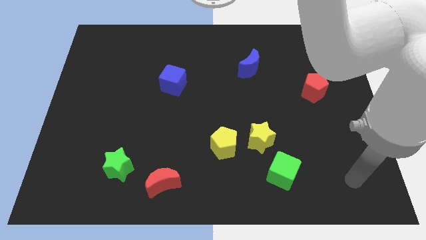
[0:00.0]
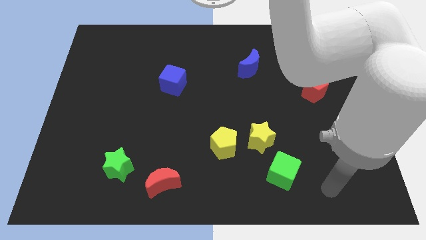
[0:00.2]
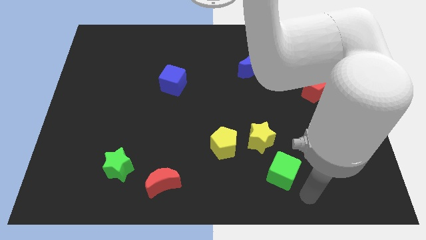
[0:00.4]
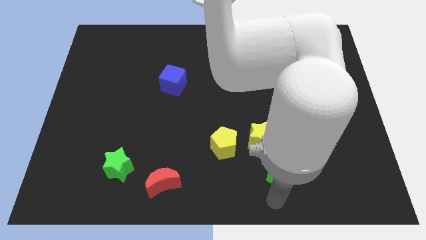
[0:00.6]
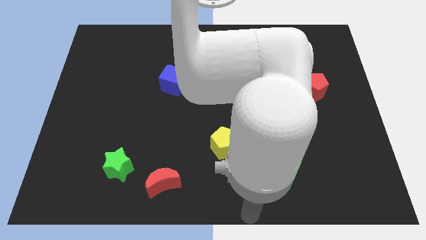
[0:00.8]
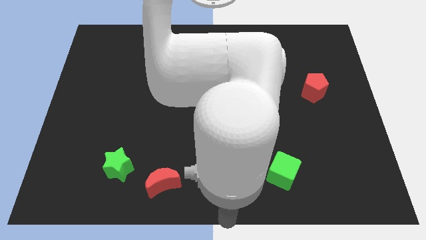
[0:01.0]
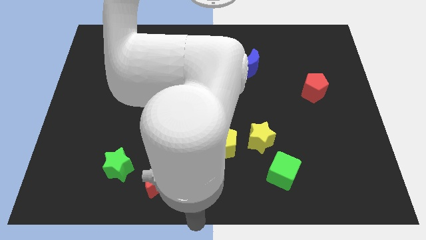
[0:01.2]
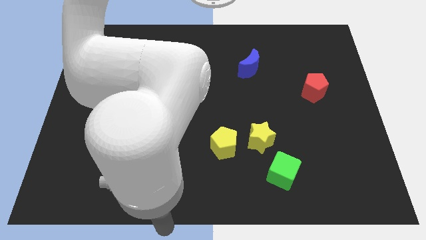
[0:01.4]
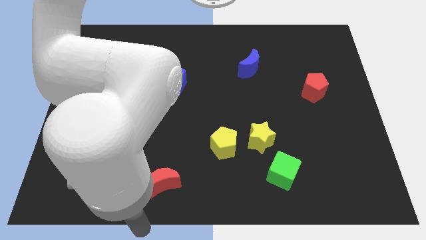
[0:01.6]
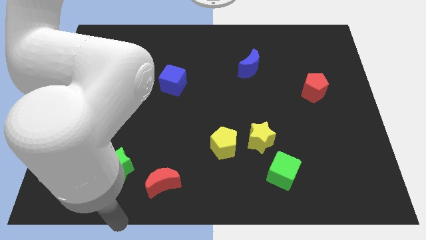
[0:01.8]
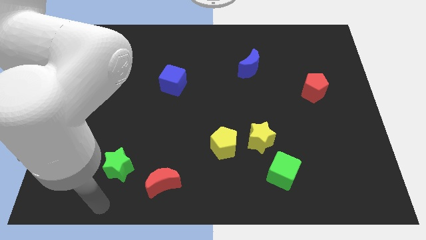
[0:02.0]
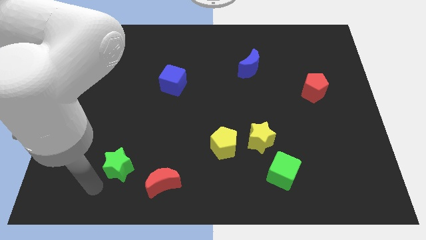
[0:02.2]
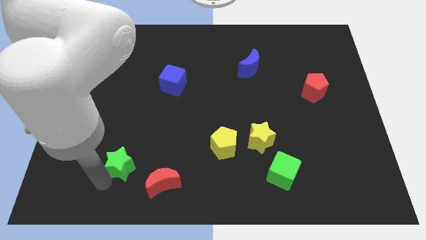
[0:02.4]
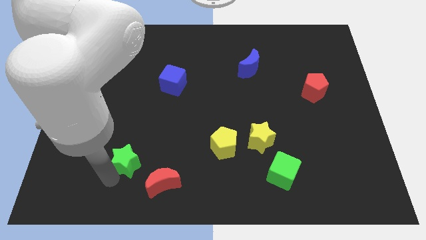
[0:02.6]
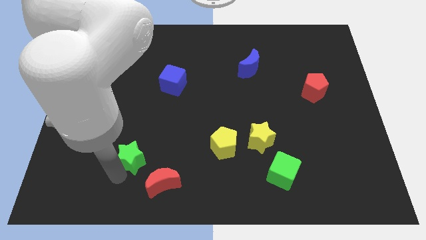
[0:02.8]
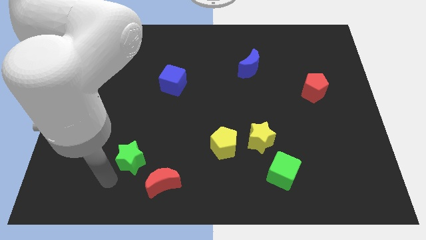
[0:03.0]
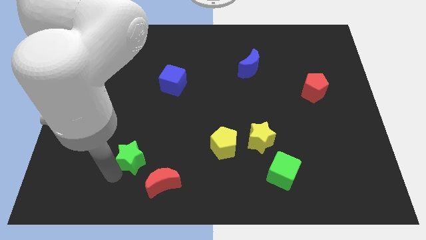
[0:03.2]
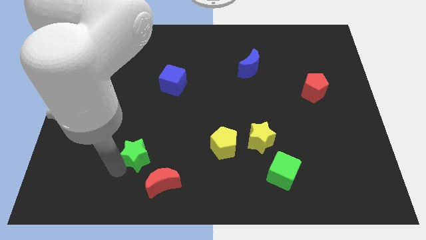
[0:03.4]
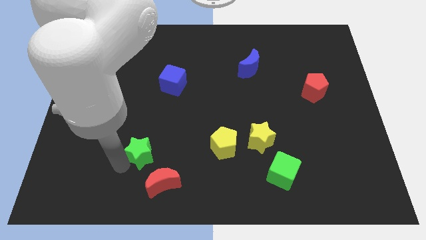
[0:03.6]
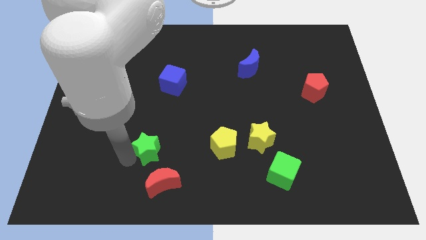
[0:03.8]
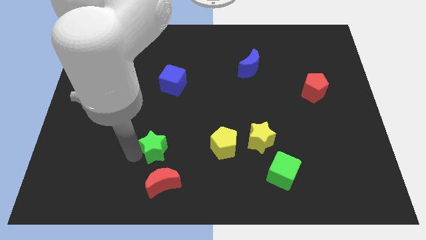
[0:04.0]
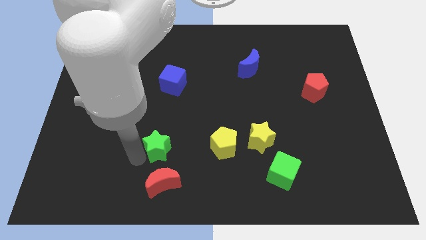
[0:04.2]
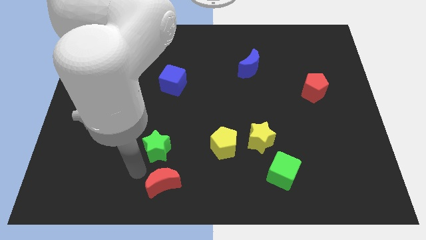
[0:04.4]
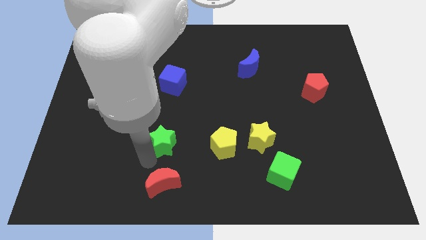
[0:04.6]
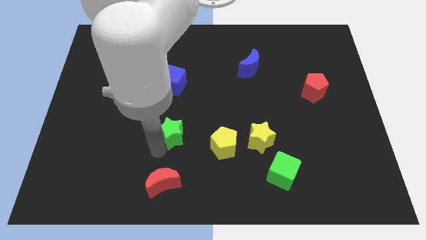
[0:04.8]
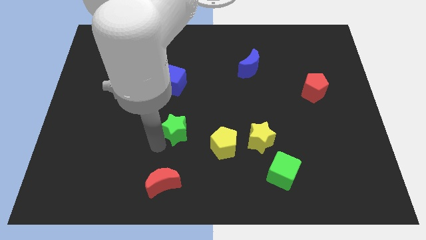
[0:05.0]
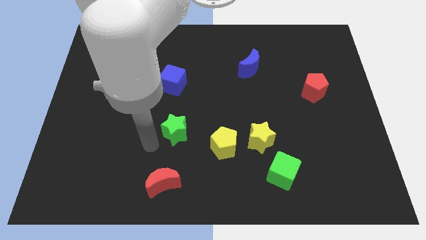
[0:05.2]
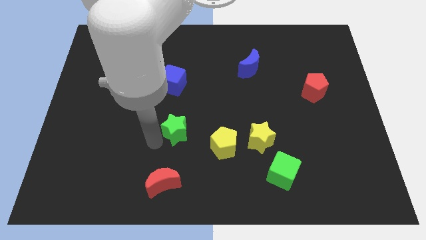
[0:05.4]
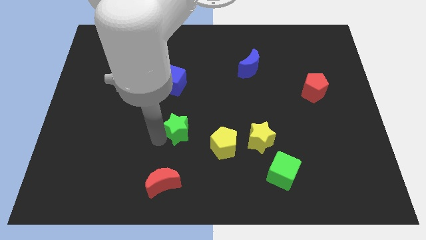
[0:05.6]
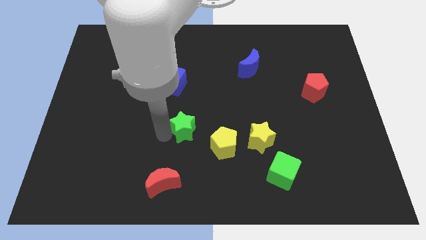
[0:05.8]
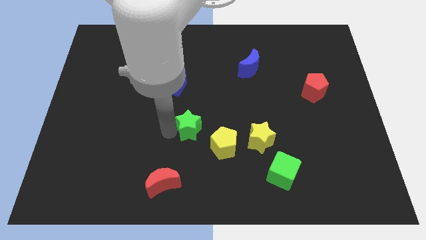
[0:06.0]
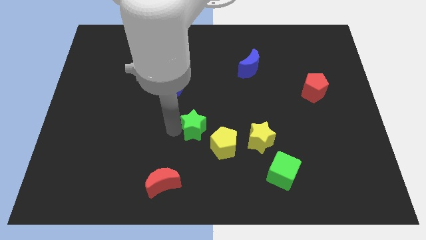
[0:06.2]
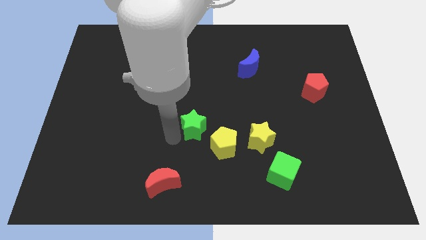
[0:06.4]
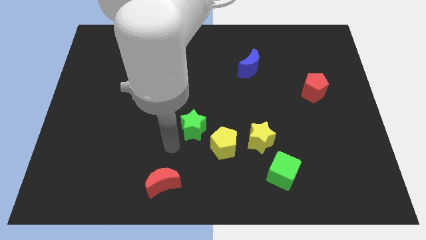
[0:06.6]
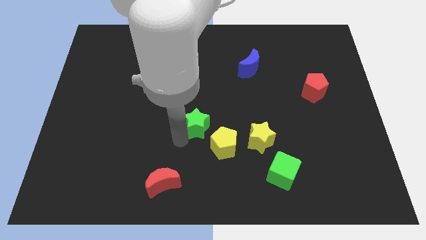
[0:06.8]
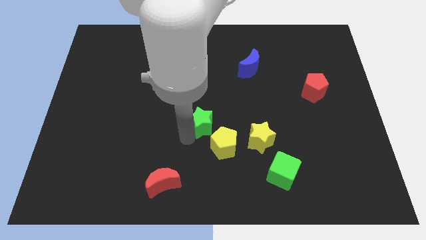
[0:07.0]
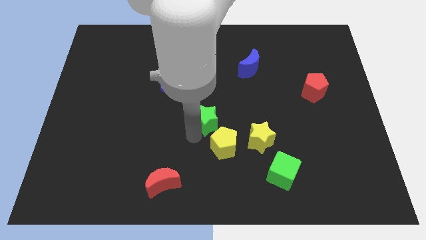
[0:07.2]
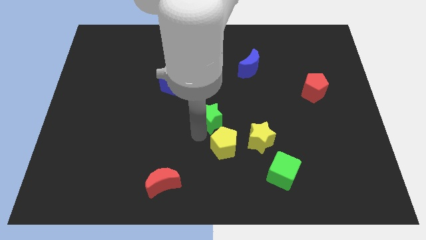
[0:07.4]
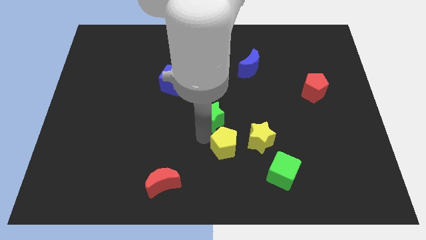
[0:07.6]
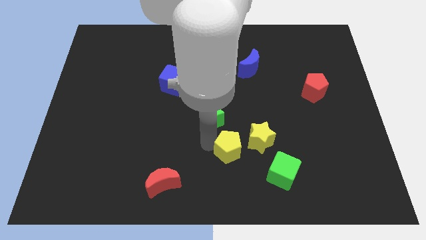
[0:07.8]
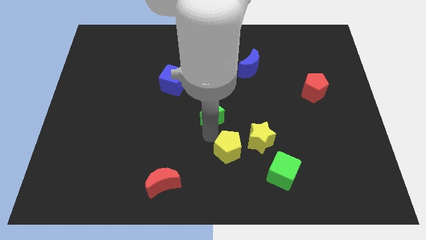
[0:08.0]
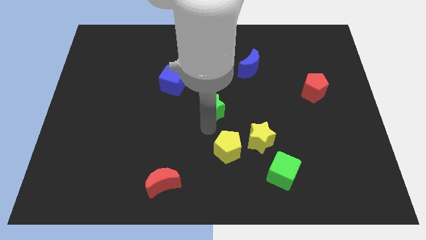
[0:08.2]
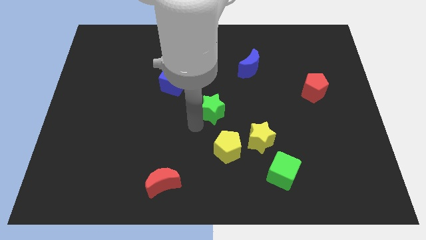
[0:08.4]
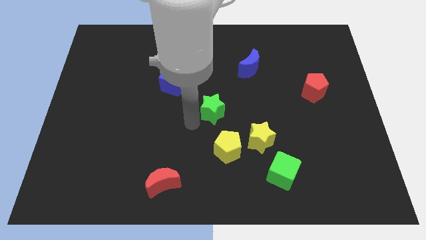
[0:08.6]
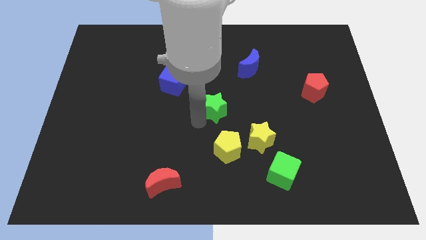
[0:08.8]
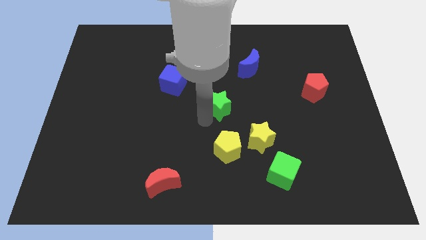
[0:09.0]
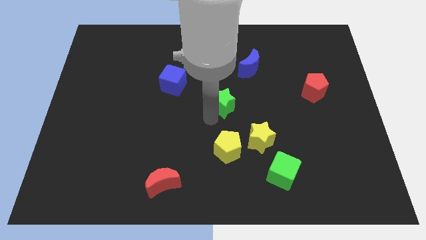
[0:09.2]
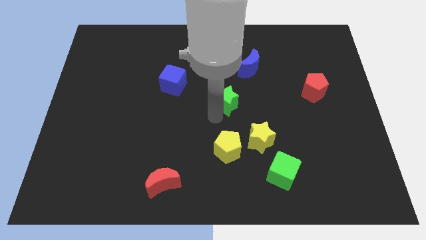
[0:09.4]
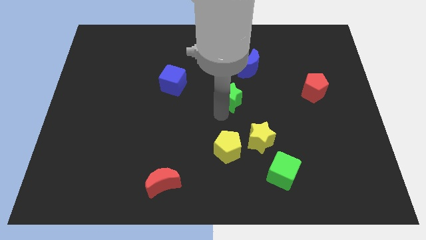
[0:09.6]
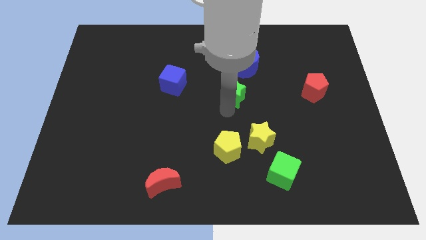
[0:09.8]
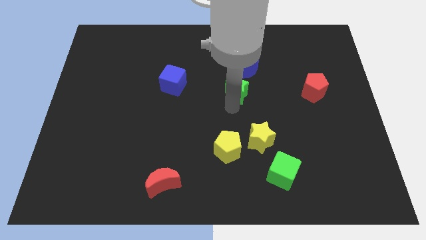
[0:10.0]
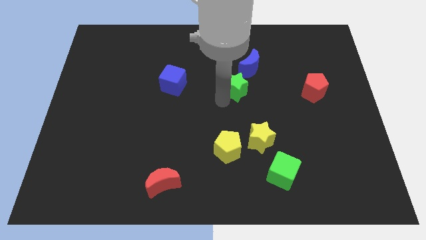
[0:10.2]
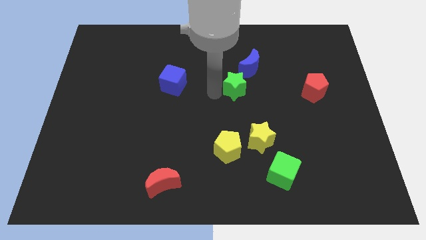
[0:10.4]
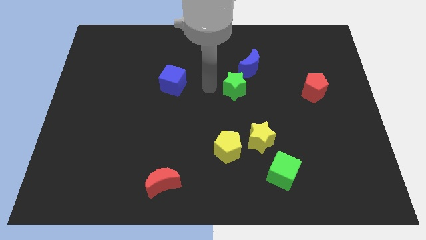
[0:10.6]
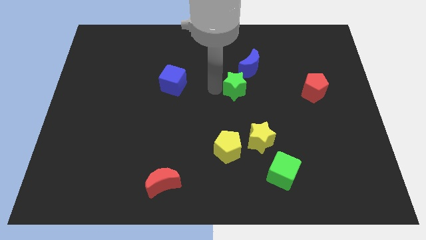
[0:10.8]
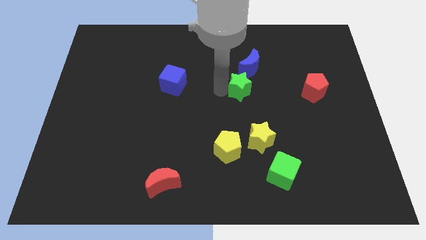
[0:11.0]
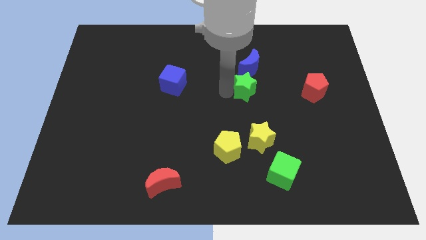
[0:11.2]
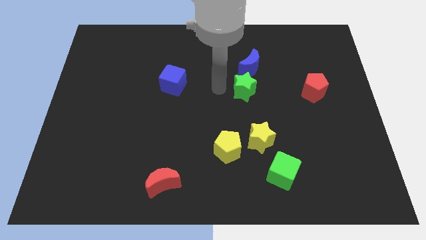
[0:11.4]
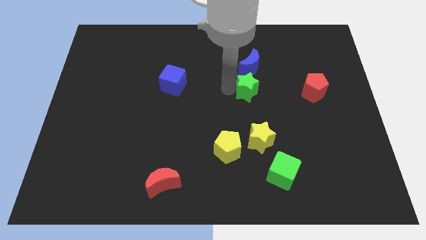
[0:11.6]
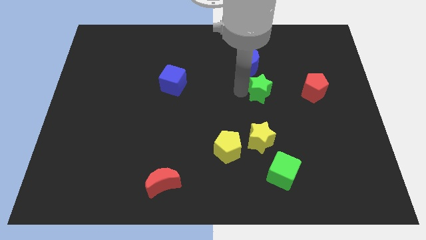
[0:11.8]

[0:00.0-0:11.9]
move the green star to the bottom right of the blue moon

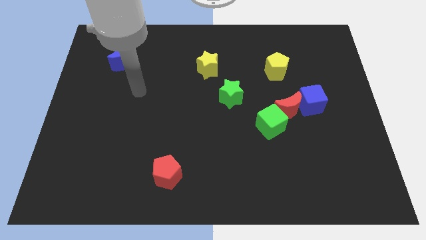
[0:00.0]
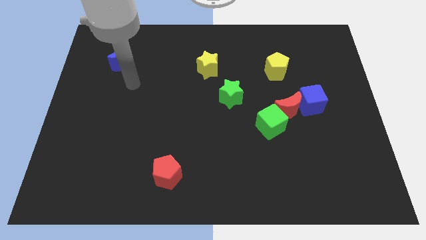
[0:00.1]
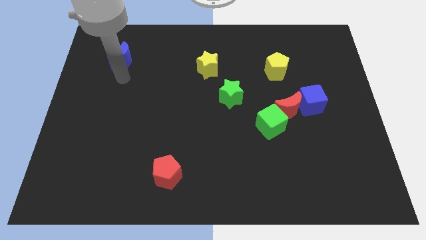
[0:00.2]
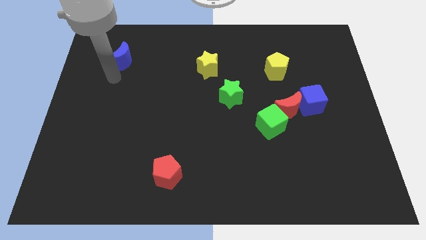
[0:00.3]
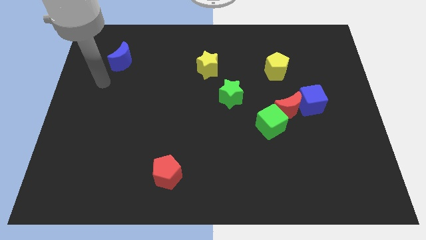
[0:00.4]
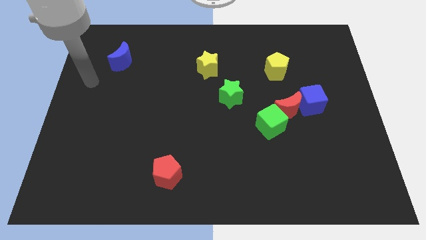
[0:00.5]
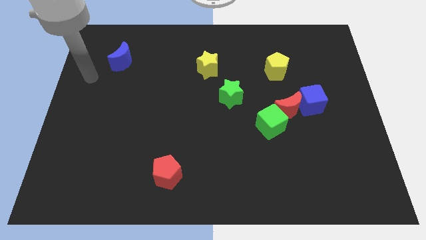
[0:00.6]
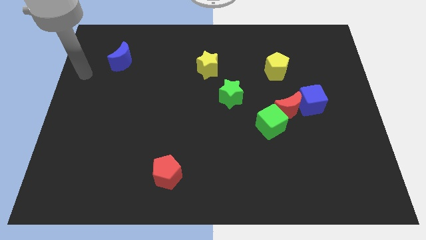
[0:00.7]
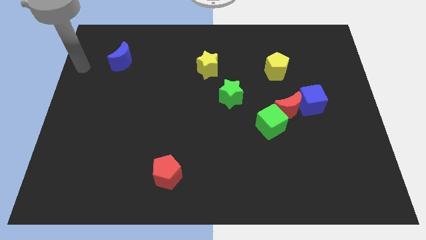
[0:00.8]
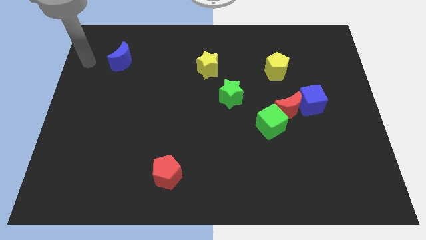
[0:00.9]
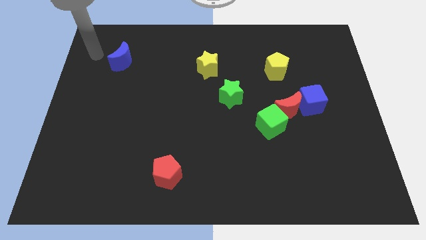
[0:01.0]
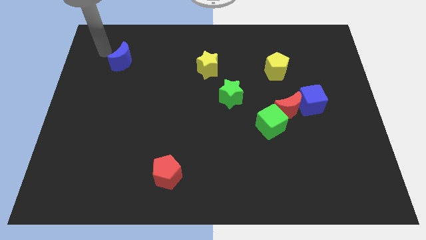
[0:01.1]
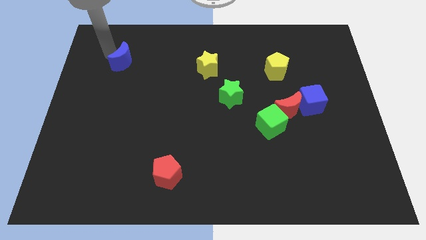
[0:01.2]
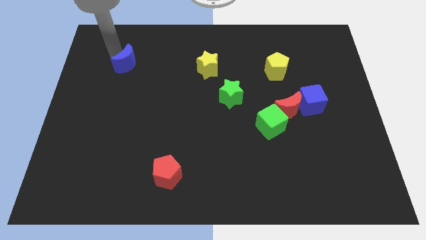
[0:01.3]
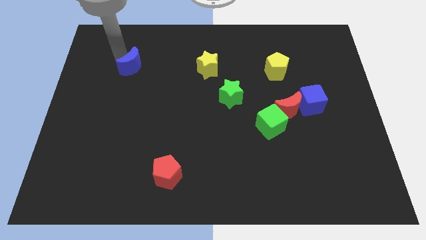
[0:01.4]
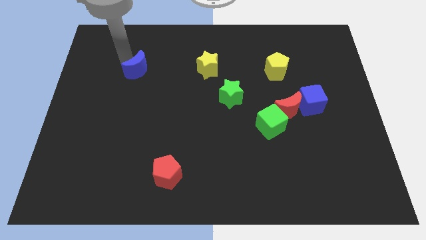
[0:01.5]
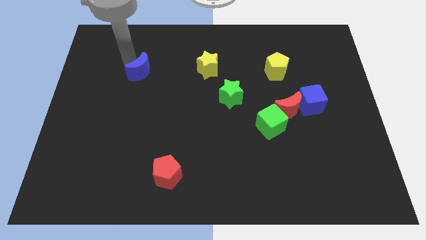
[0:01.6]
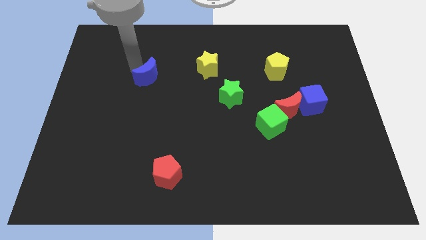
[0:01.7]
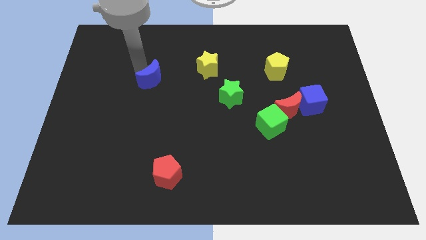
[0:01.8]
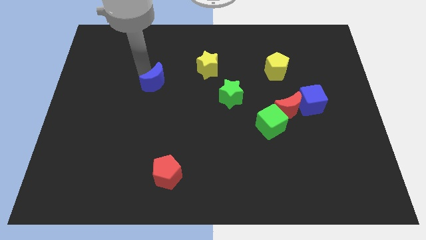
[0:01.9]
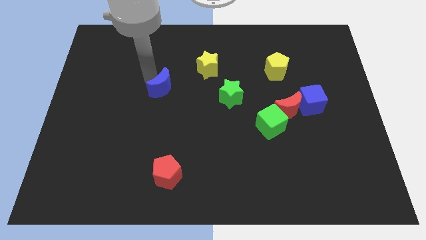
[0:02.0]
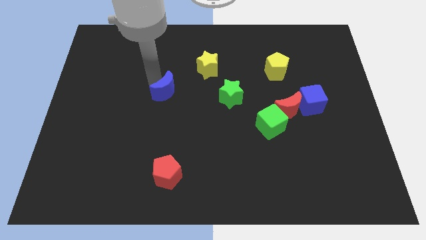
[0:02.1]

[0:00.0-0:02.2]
put the blue moon left of the green star
